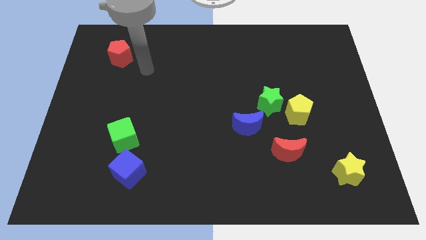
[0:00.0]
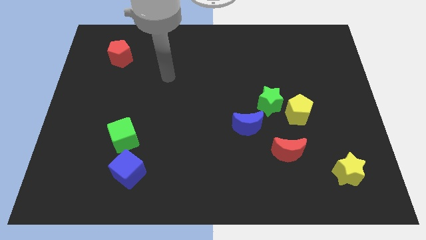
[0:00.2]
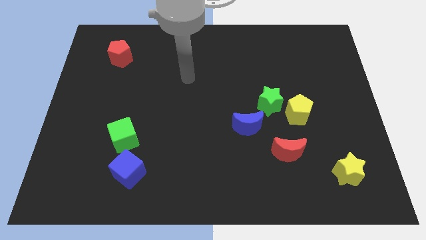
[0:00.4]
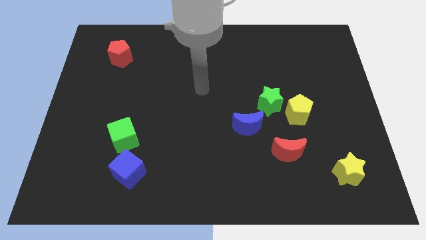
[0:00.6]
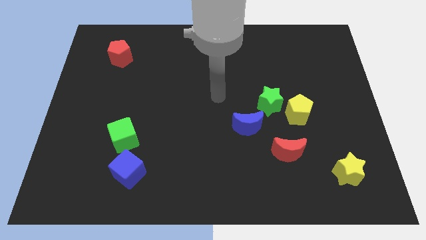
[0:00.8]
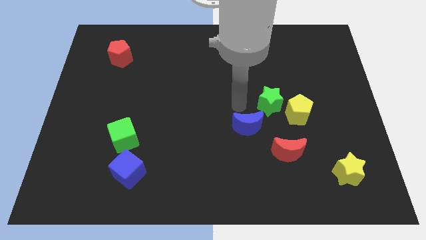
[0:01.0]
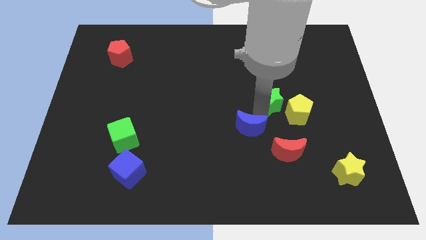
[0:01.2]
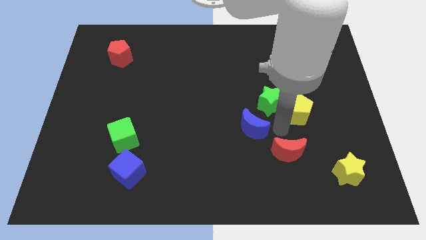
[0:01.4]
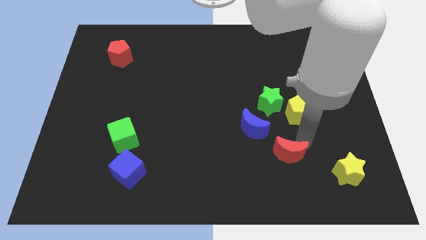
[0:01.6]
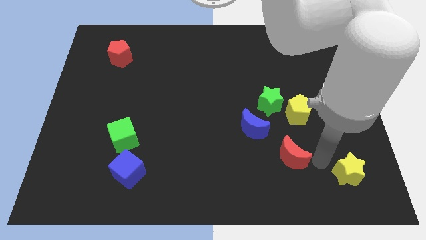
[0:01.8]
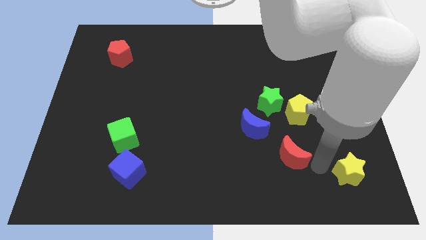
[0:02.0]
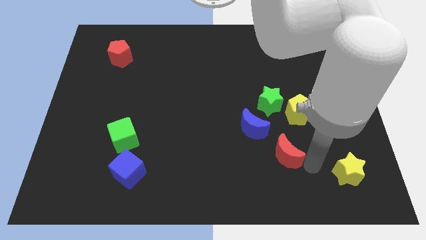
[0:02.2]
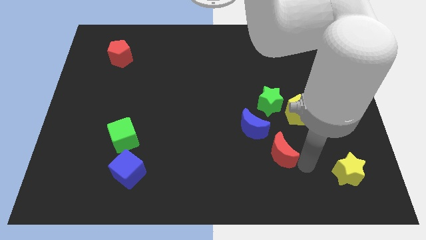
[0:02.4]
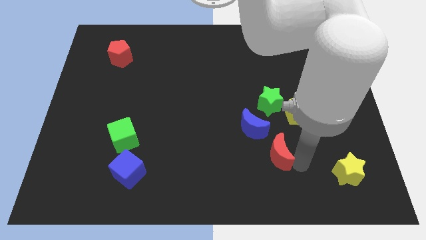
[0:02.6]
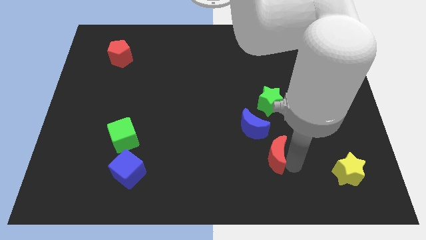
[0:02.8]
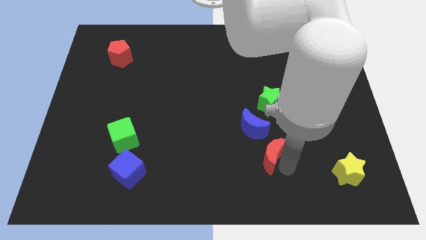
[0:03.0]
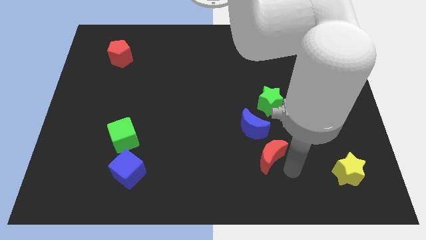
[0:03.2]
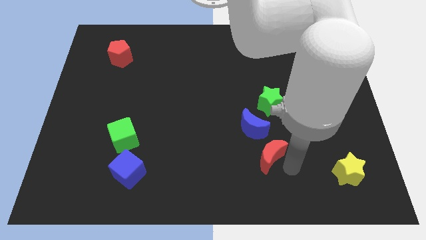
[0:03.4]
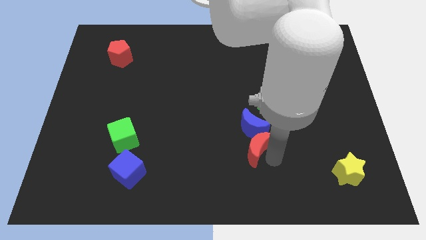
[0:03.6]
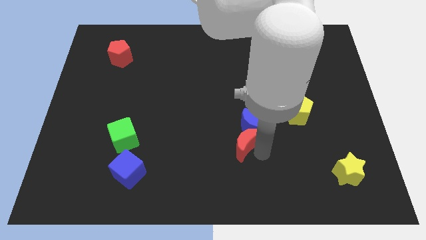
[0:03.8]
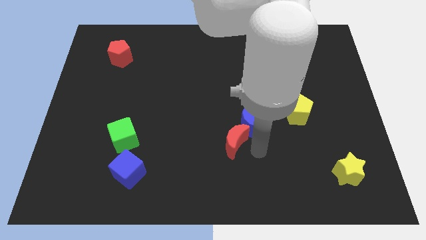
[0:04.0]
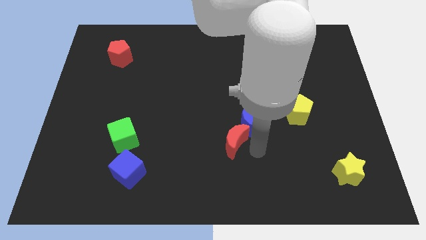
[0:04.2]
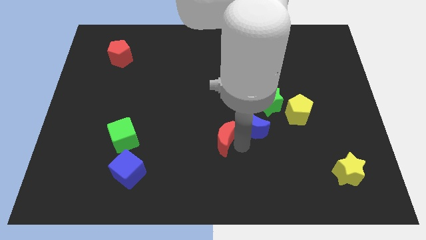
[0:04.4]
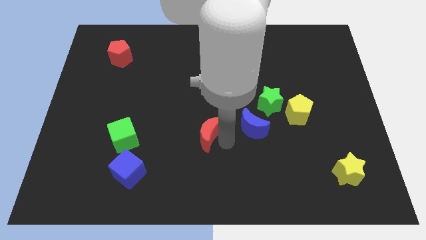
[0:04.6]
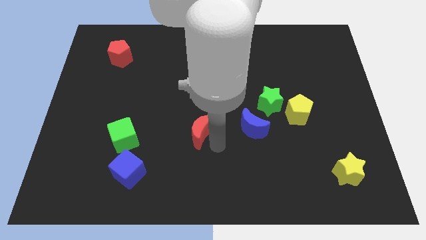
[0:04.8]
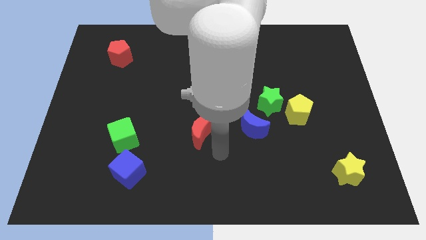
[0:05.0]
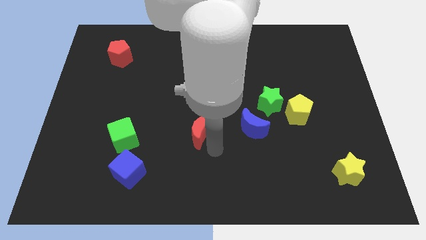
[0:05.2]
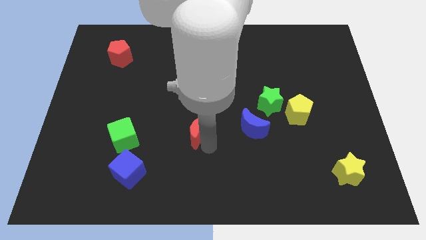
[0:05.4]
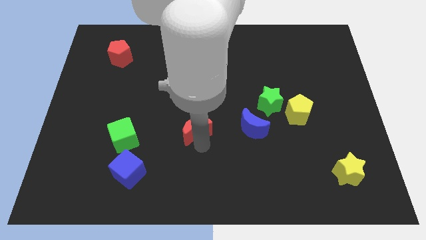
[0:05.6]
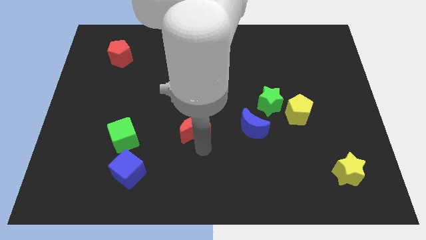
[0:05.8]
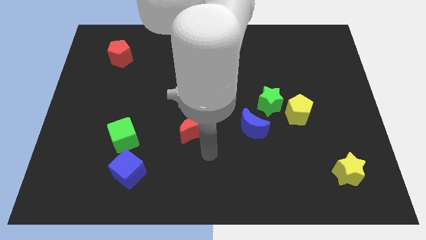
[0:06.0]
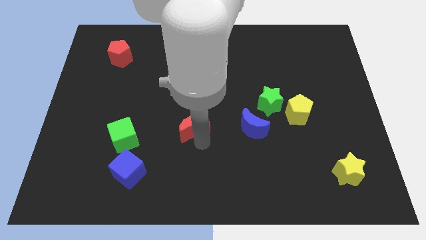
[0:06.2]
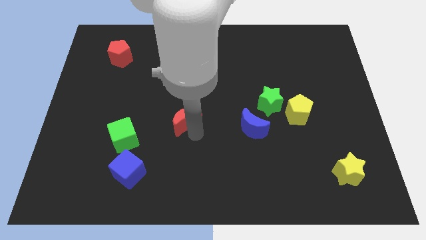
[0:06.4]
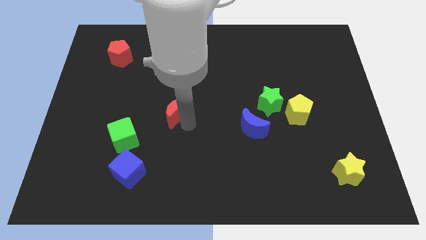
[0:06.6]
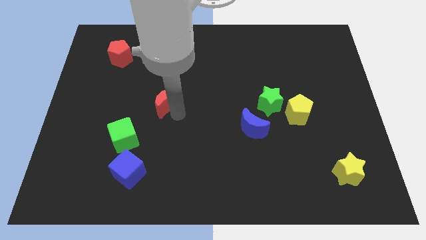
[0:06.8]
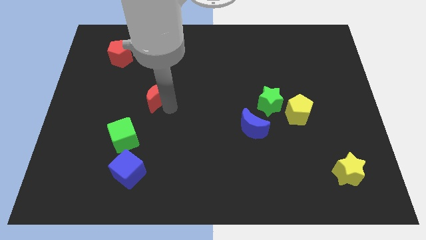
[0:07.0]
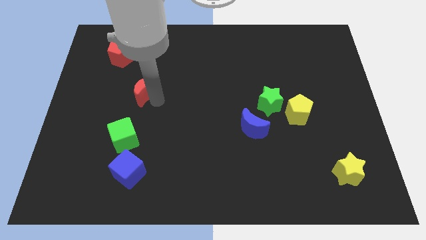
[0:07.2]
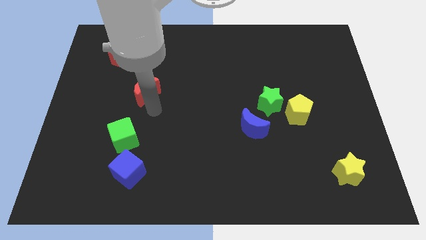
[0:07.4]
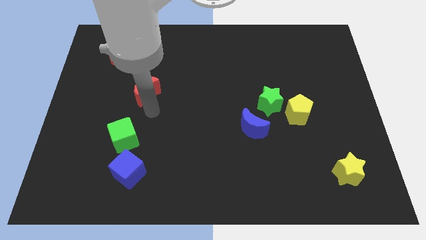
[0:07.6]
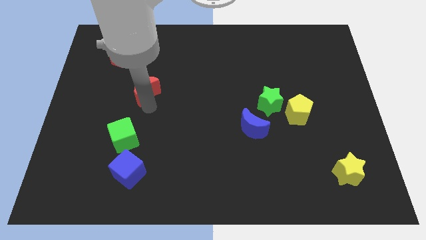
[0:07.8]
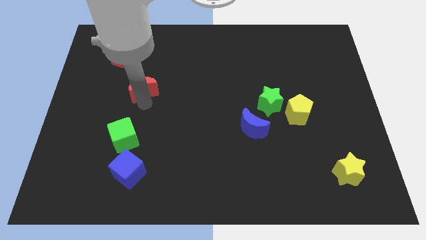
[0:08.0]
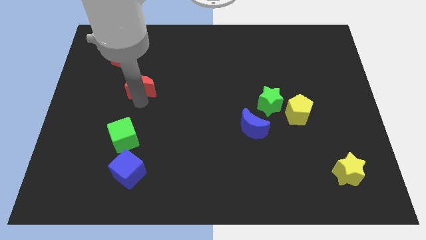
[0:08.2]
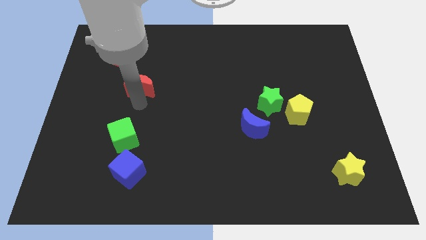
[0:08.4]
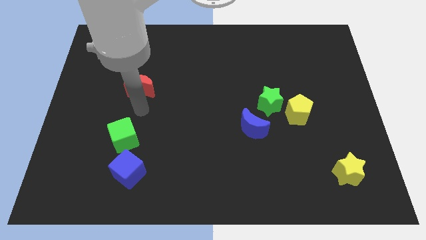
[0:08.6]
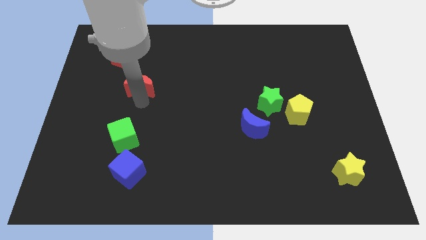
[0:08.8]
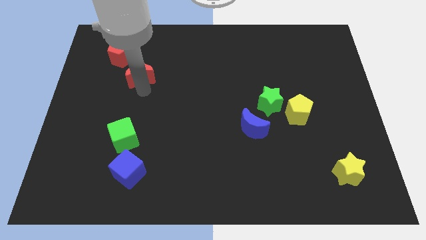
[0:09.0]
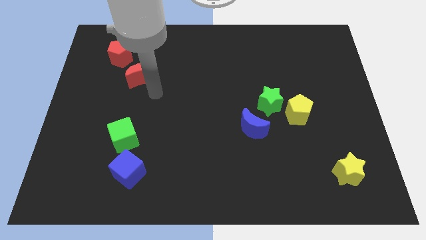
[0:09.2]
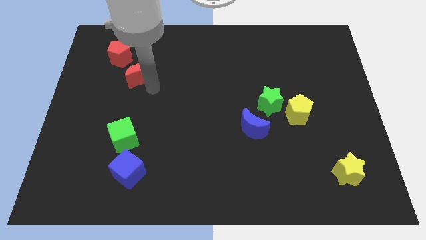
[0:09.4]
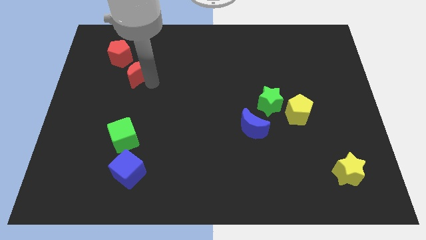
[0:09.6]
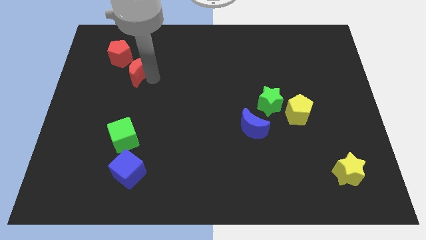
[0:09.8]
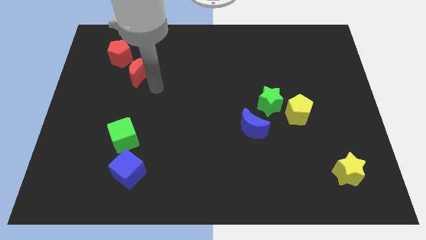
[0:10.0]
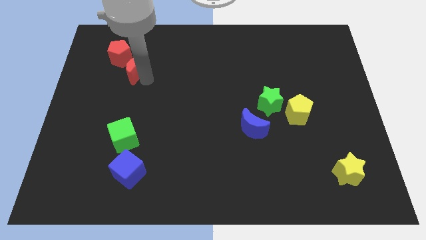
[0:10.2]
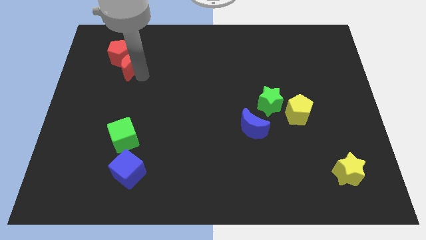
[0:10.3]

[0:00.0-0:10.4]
slide the red moon next to the red pentagon

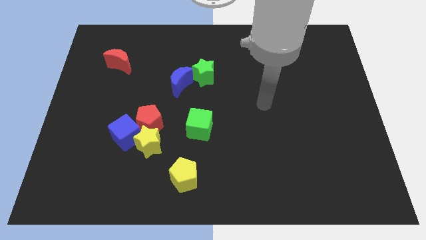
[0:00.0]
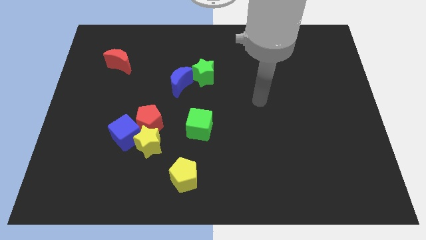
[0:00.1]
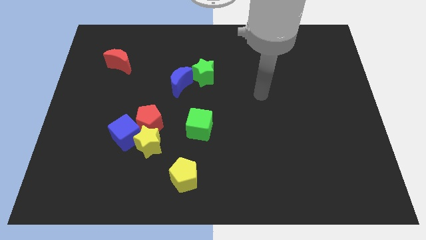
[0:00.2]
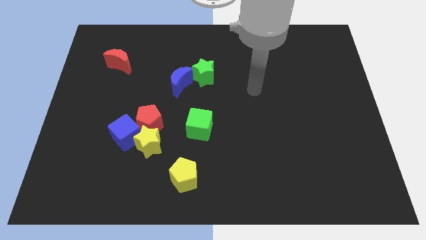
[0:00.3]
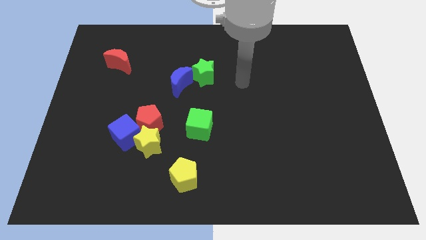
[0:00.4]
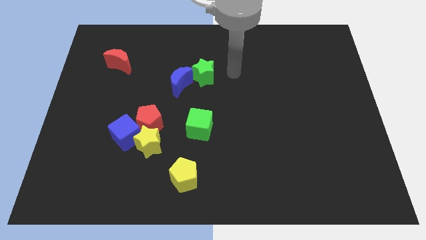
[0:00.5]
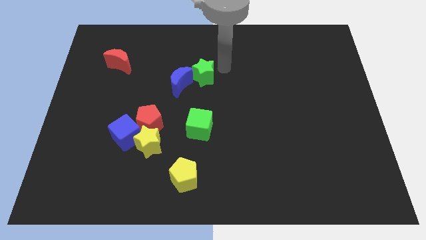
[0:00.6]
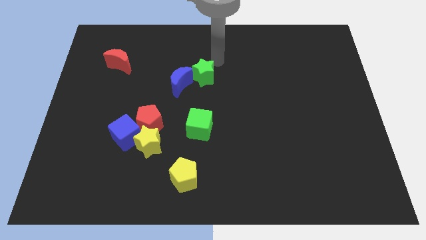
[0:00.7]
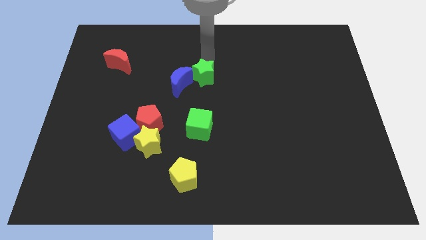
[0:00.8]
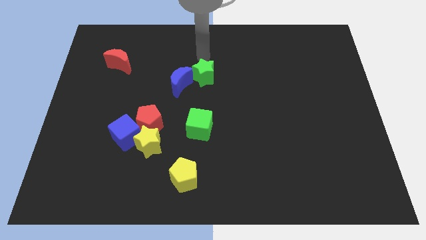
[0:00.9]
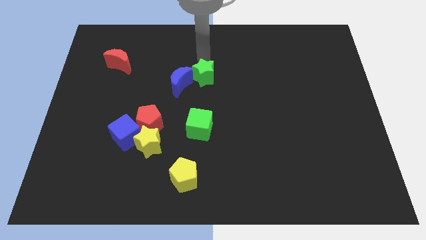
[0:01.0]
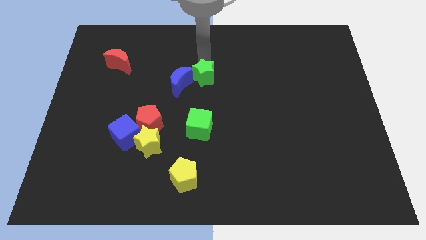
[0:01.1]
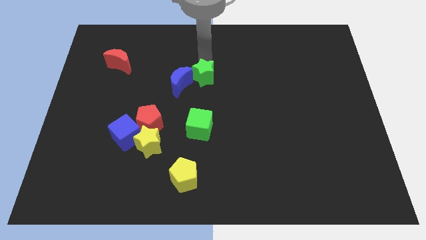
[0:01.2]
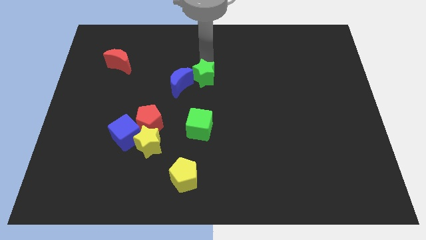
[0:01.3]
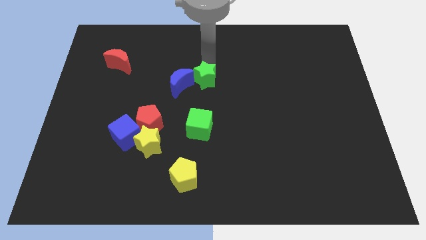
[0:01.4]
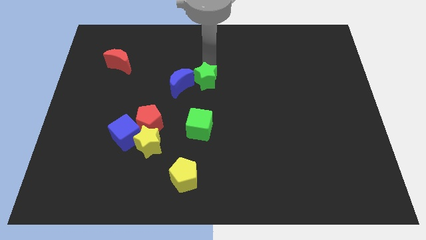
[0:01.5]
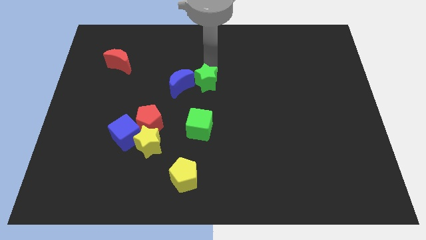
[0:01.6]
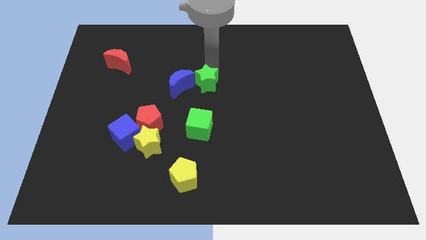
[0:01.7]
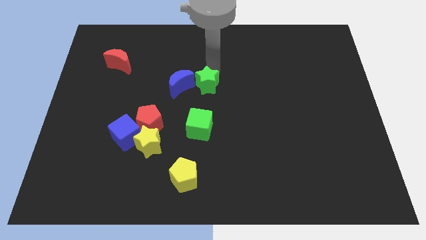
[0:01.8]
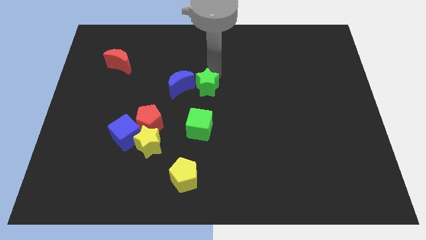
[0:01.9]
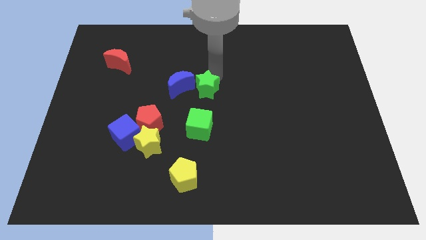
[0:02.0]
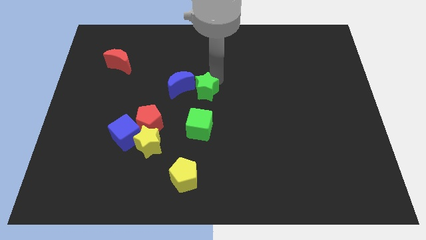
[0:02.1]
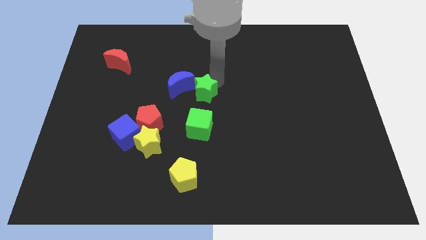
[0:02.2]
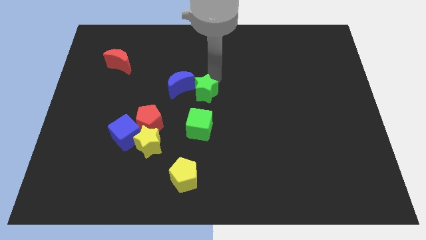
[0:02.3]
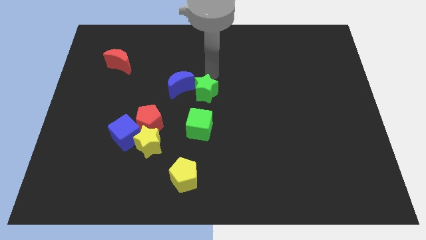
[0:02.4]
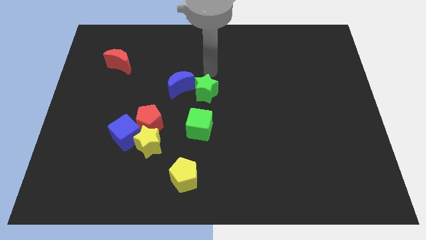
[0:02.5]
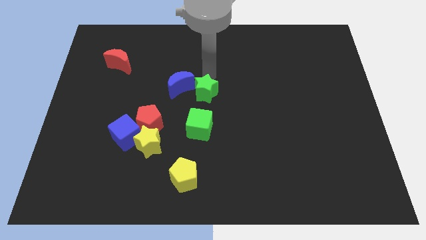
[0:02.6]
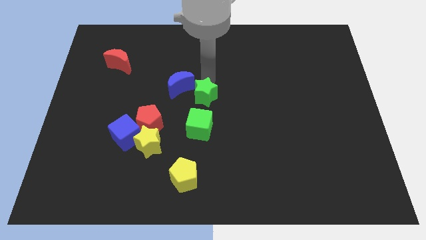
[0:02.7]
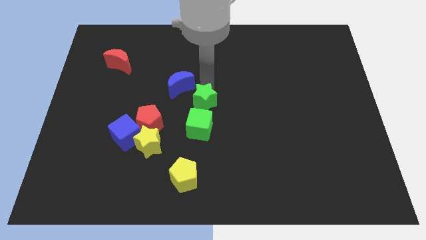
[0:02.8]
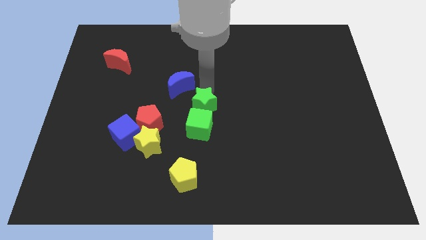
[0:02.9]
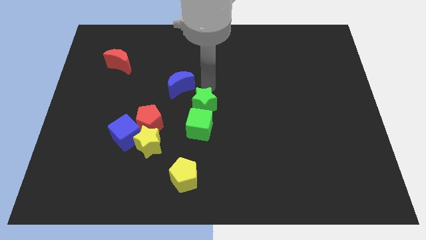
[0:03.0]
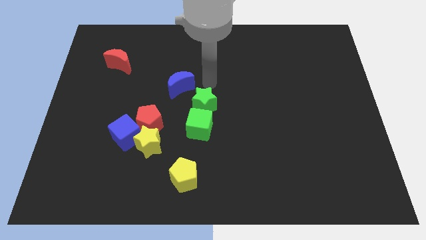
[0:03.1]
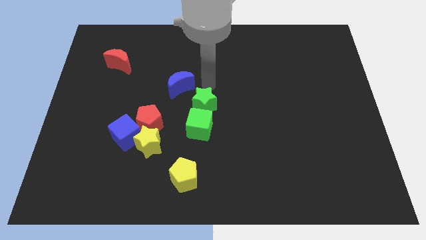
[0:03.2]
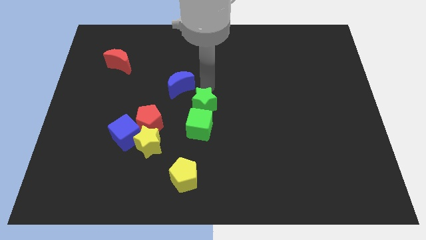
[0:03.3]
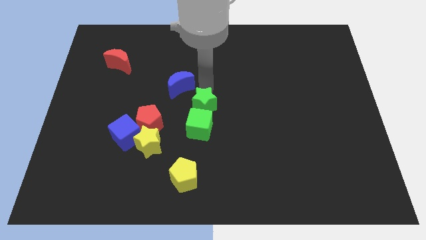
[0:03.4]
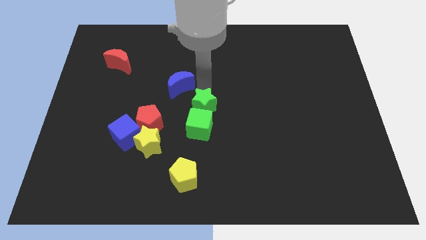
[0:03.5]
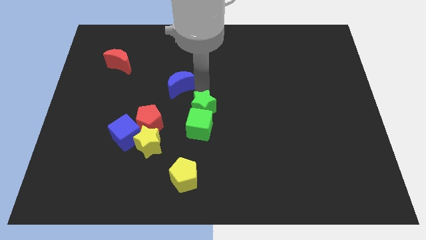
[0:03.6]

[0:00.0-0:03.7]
move the green star towards the green cube
